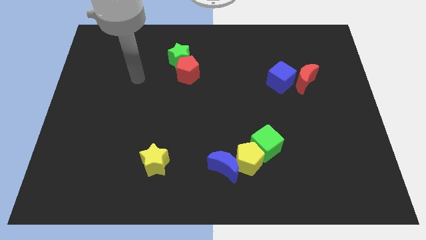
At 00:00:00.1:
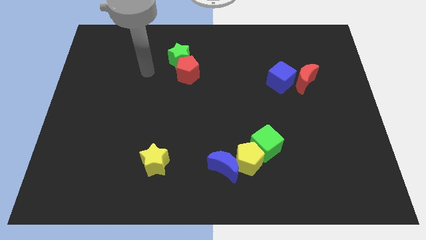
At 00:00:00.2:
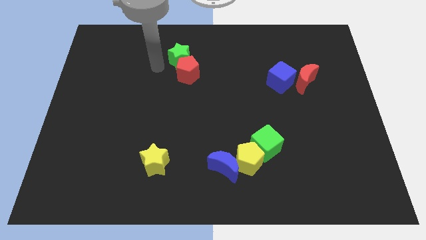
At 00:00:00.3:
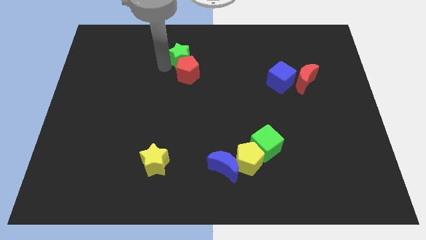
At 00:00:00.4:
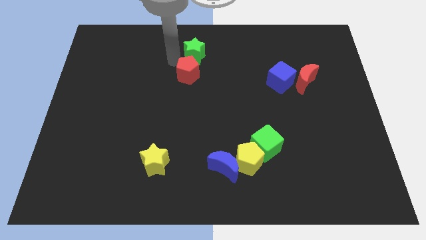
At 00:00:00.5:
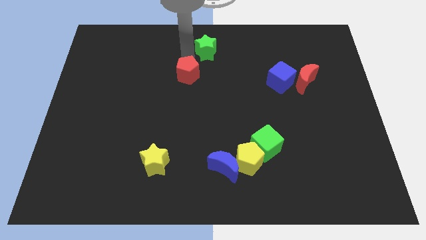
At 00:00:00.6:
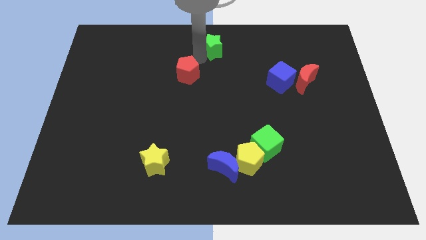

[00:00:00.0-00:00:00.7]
separate the red pentagon from the green star

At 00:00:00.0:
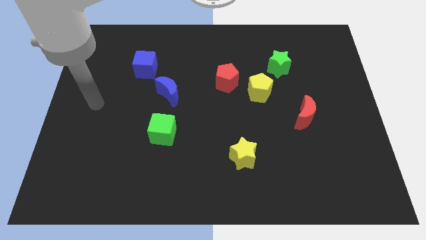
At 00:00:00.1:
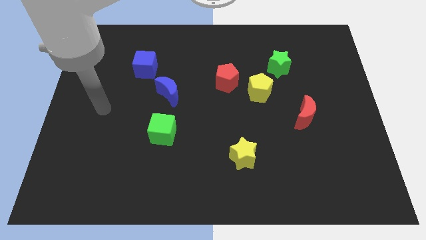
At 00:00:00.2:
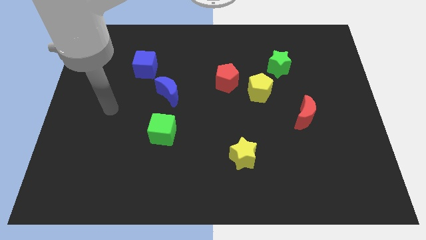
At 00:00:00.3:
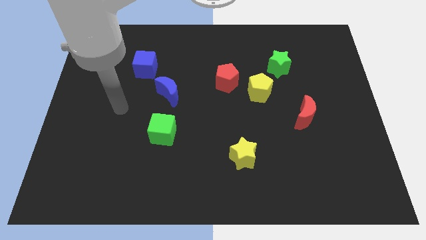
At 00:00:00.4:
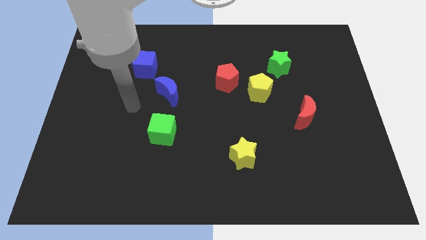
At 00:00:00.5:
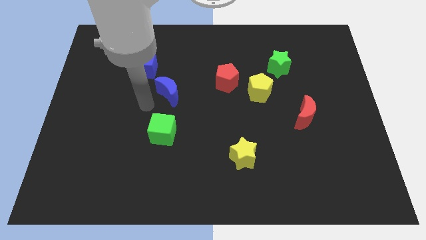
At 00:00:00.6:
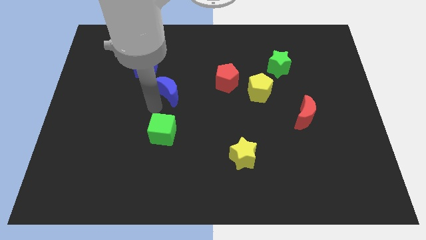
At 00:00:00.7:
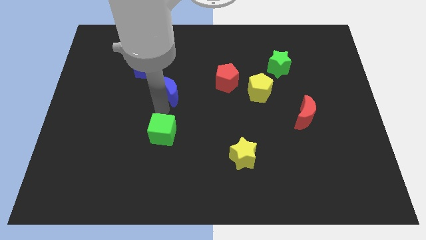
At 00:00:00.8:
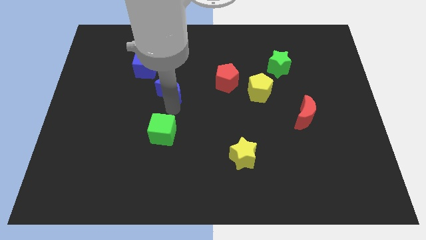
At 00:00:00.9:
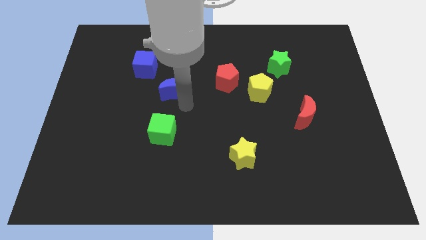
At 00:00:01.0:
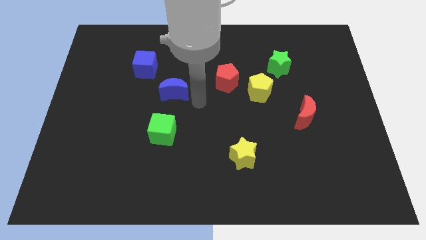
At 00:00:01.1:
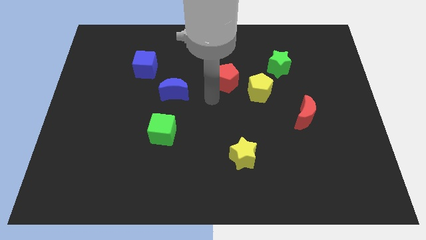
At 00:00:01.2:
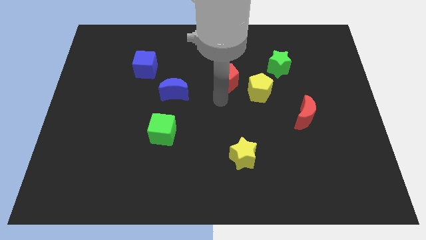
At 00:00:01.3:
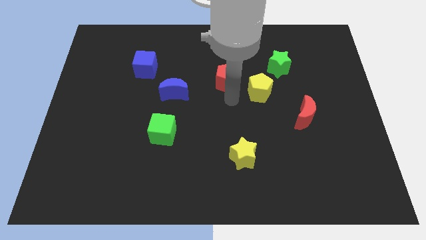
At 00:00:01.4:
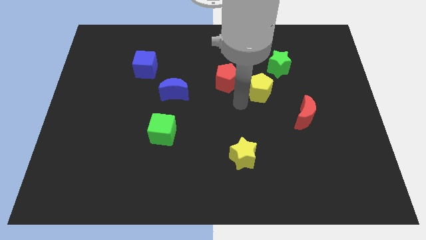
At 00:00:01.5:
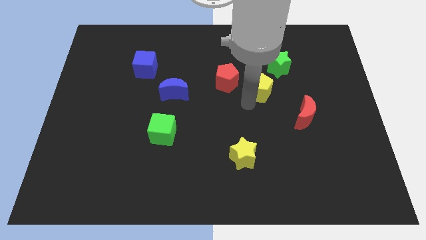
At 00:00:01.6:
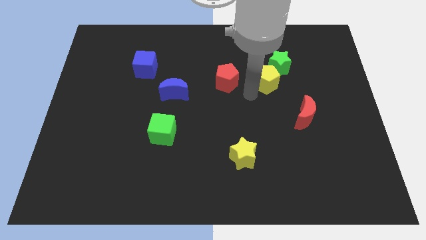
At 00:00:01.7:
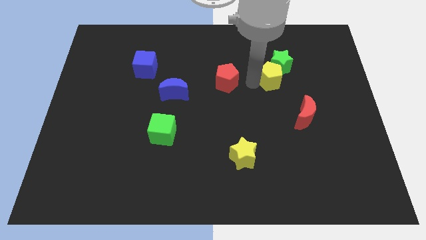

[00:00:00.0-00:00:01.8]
move the red pentagon away from the yellow pentagon

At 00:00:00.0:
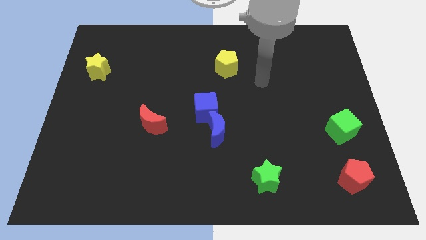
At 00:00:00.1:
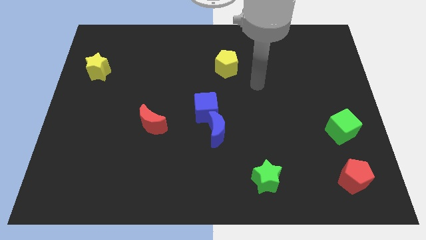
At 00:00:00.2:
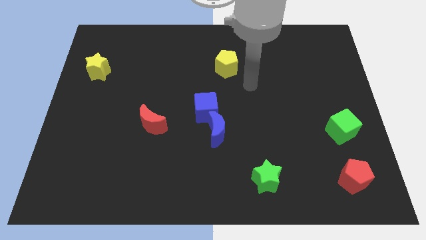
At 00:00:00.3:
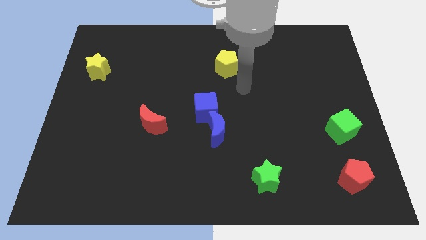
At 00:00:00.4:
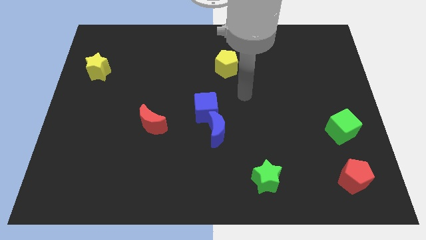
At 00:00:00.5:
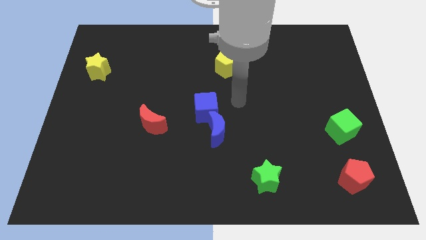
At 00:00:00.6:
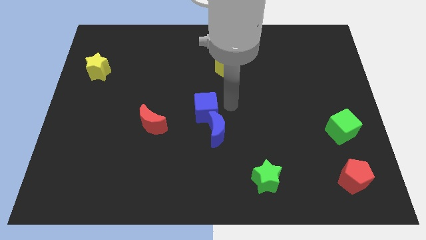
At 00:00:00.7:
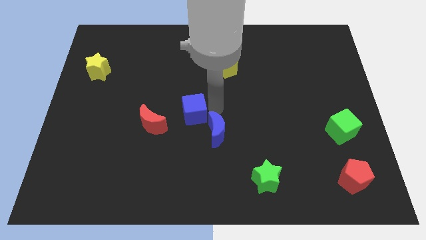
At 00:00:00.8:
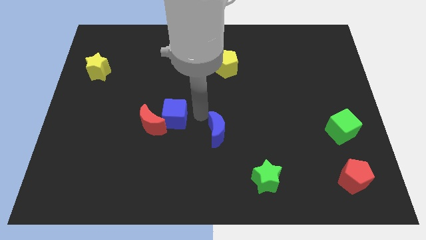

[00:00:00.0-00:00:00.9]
separate the blue moon from the blue cube

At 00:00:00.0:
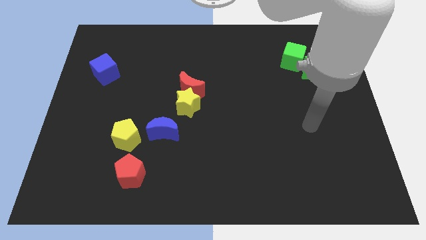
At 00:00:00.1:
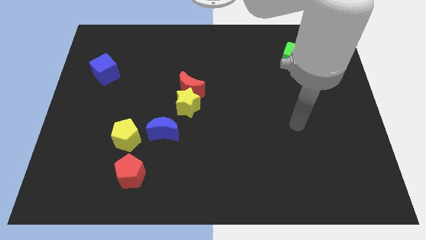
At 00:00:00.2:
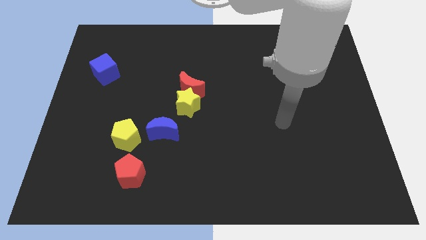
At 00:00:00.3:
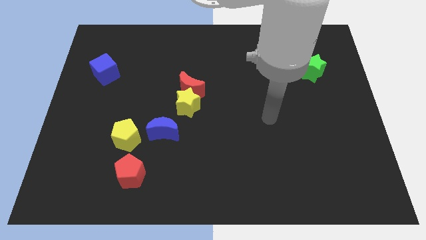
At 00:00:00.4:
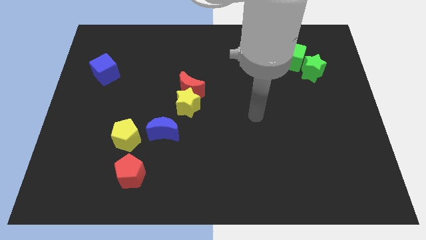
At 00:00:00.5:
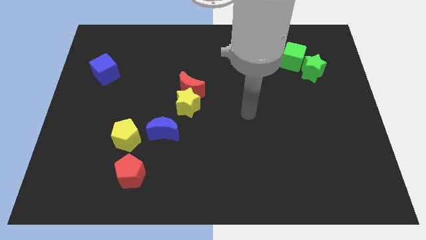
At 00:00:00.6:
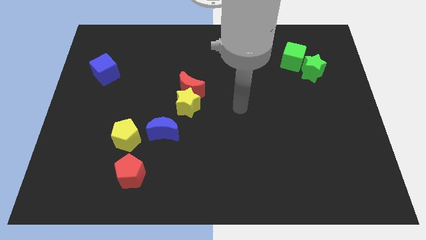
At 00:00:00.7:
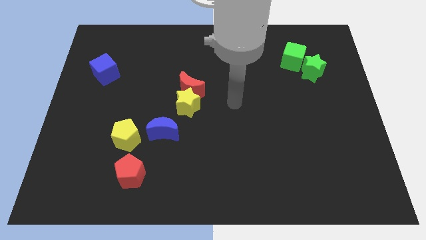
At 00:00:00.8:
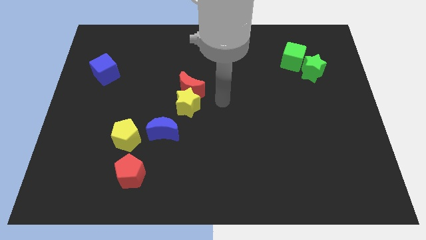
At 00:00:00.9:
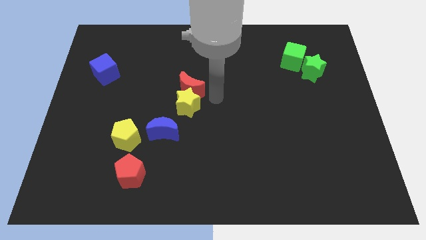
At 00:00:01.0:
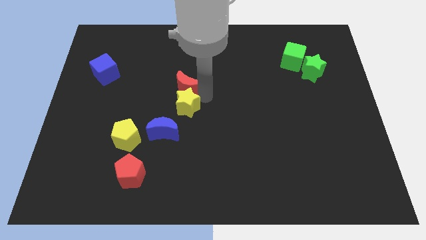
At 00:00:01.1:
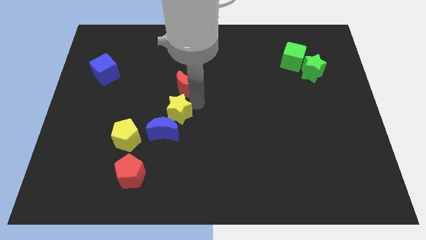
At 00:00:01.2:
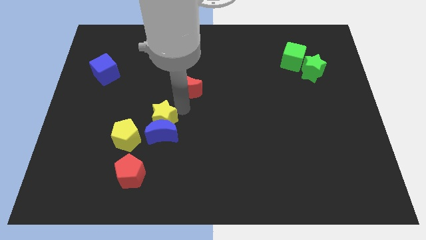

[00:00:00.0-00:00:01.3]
separate the red moon from the yellow star

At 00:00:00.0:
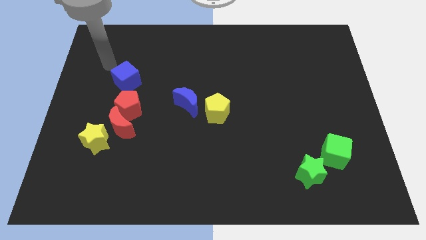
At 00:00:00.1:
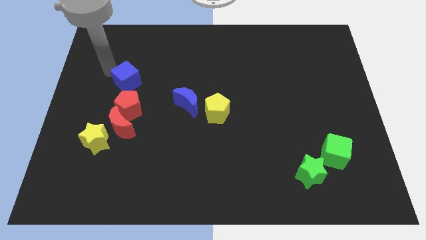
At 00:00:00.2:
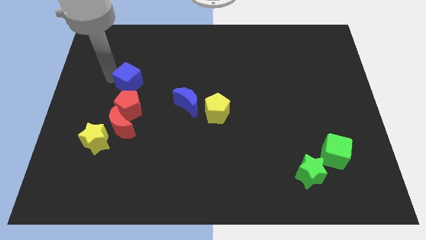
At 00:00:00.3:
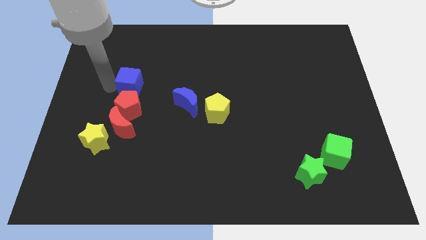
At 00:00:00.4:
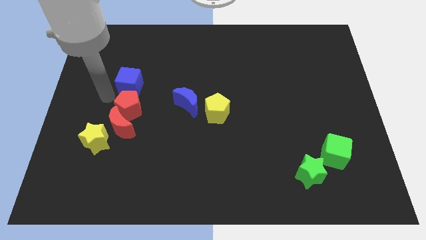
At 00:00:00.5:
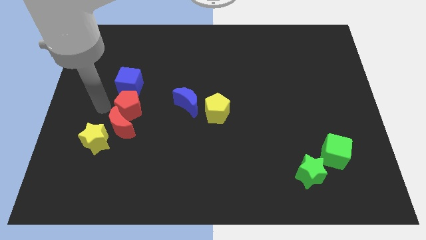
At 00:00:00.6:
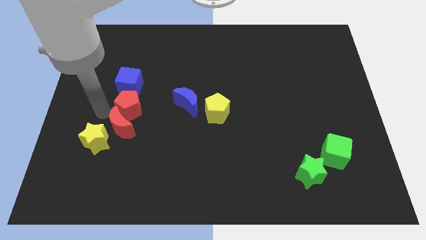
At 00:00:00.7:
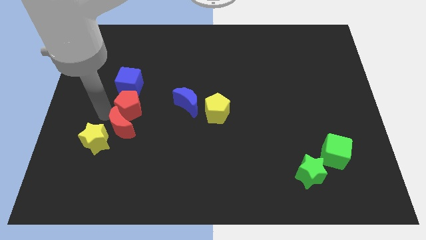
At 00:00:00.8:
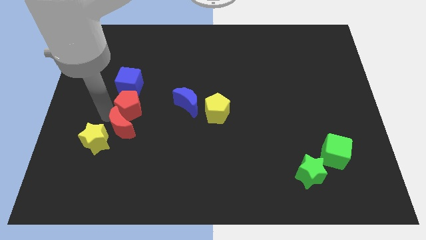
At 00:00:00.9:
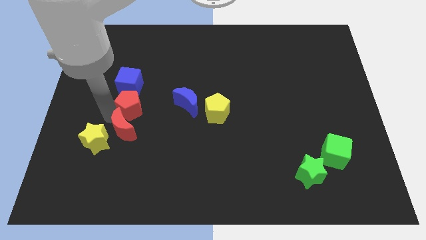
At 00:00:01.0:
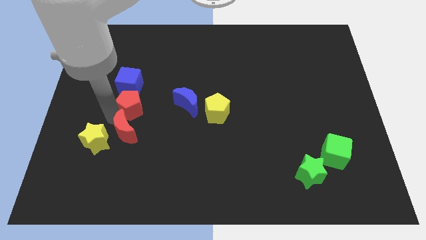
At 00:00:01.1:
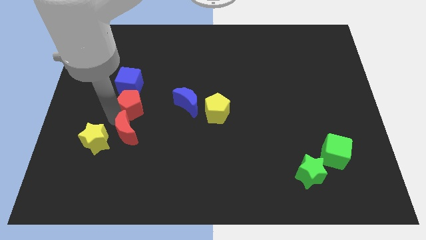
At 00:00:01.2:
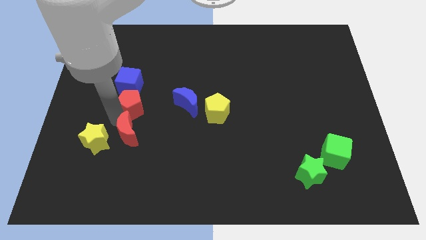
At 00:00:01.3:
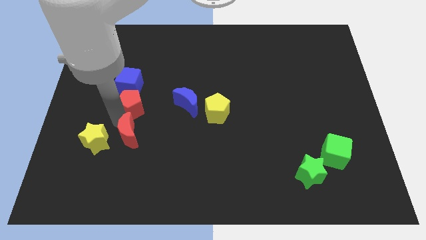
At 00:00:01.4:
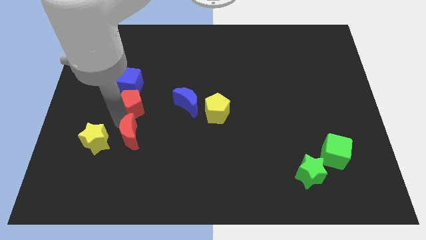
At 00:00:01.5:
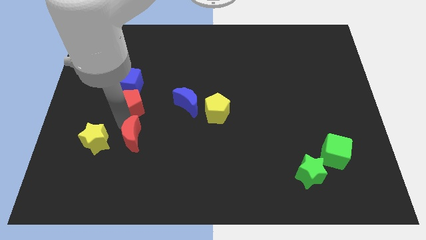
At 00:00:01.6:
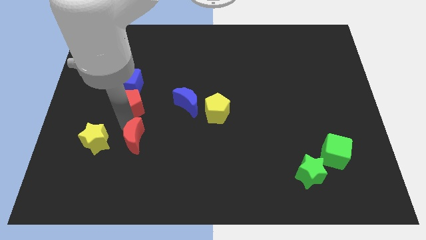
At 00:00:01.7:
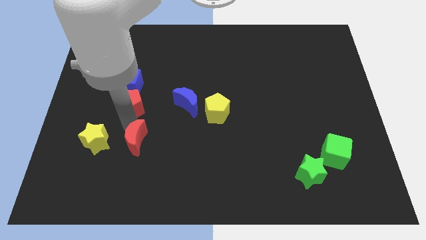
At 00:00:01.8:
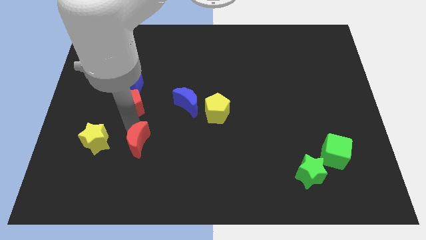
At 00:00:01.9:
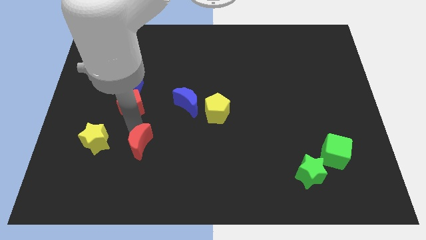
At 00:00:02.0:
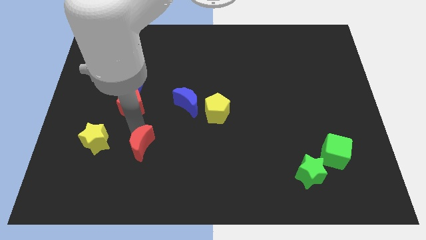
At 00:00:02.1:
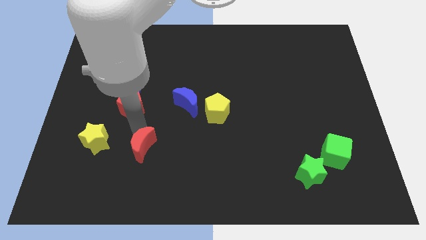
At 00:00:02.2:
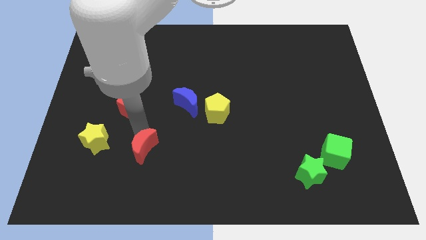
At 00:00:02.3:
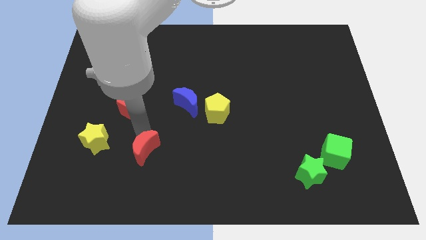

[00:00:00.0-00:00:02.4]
separate the red moon from the red pentagon and yellow star

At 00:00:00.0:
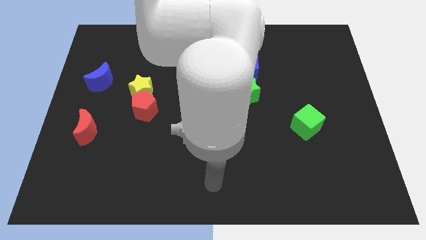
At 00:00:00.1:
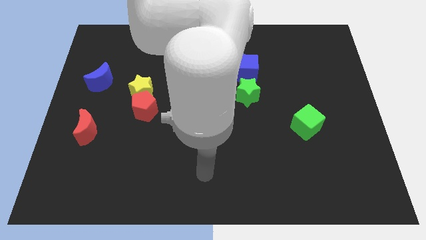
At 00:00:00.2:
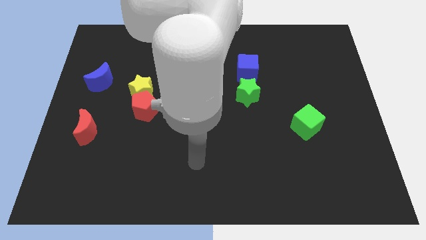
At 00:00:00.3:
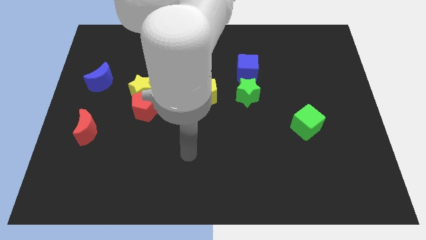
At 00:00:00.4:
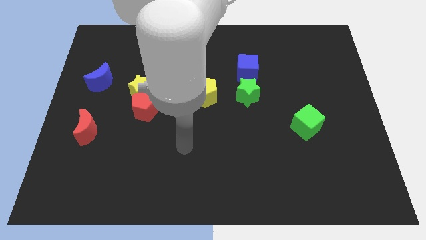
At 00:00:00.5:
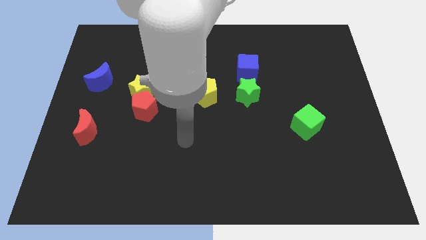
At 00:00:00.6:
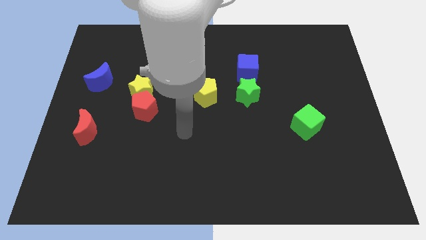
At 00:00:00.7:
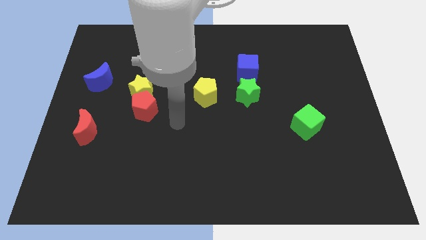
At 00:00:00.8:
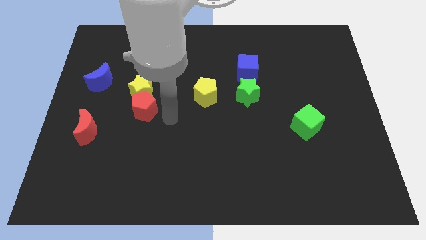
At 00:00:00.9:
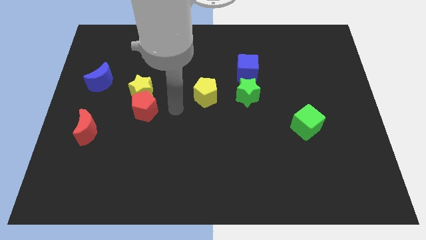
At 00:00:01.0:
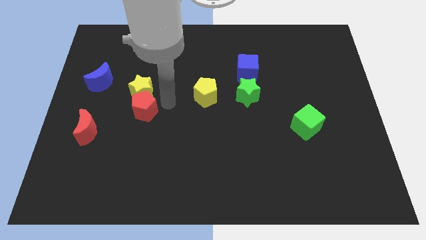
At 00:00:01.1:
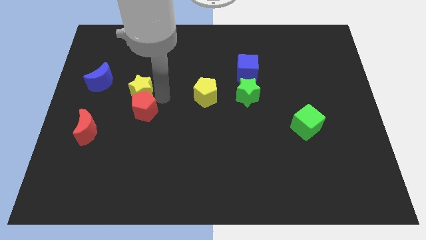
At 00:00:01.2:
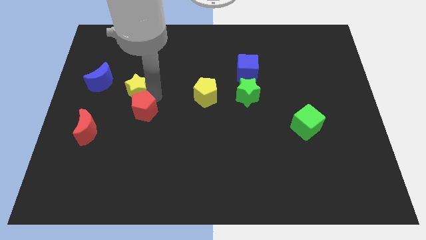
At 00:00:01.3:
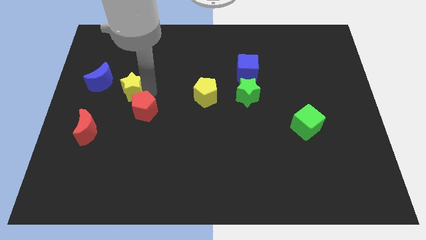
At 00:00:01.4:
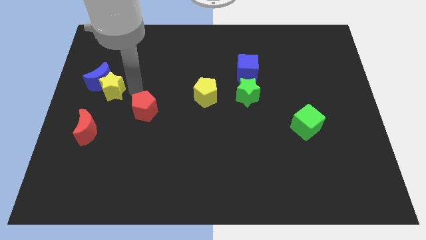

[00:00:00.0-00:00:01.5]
pull the red pentagon apart from the yellow star

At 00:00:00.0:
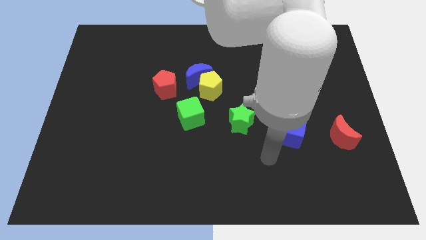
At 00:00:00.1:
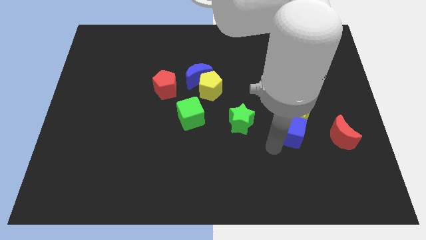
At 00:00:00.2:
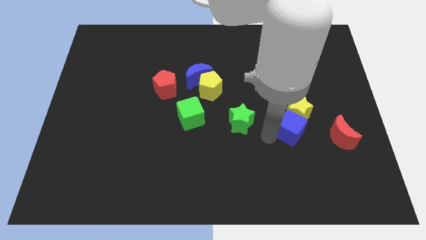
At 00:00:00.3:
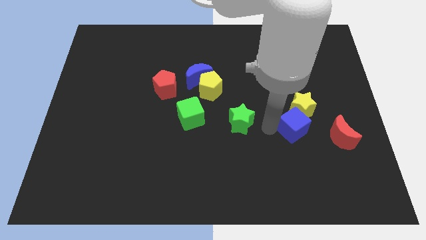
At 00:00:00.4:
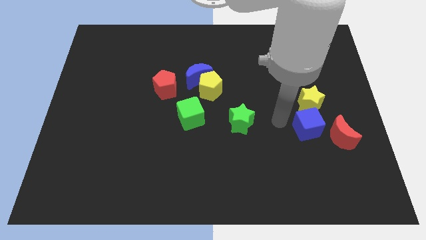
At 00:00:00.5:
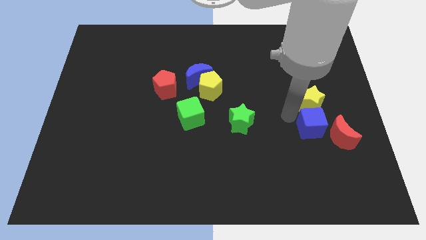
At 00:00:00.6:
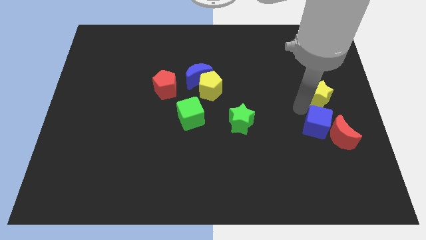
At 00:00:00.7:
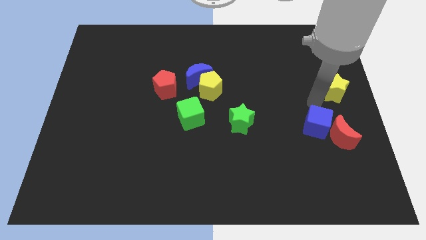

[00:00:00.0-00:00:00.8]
pull the blue cube apart from the yellow star
